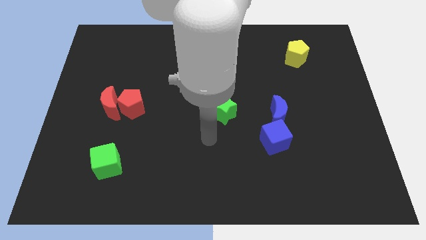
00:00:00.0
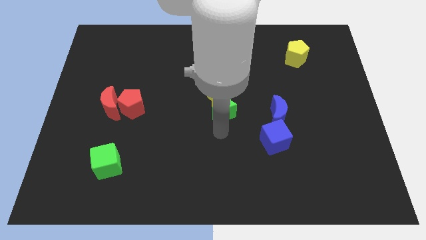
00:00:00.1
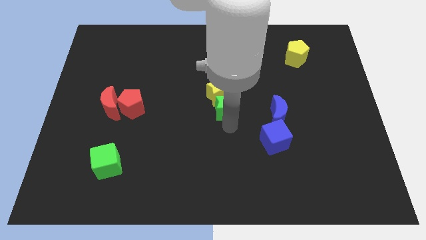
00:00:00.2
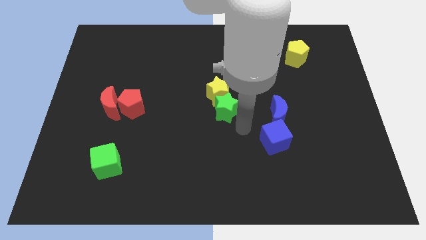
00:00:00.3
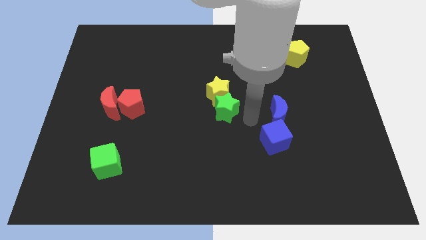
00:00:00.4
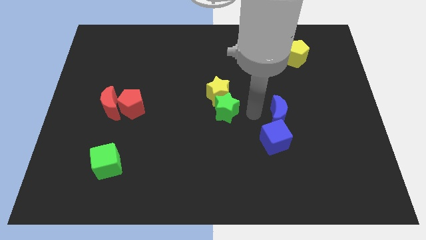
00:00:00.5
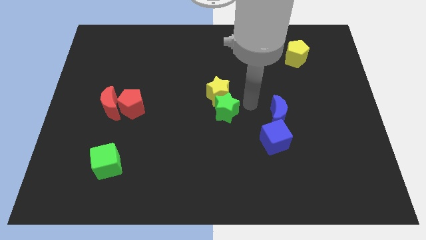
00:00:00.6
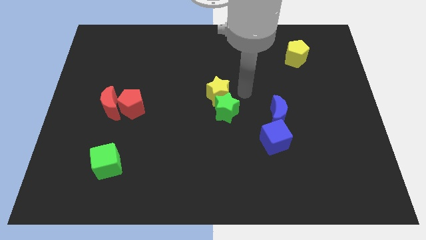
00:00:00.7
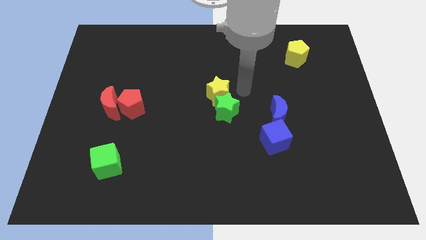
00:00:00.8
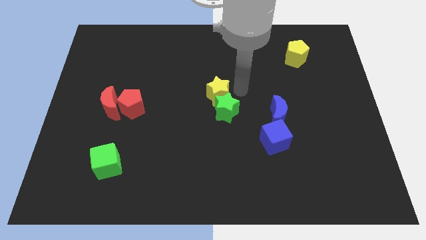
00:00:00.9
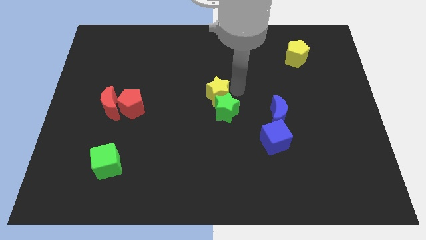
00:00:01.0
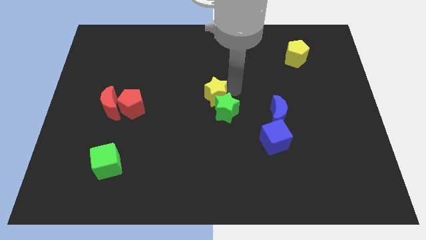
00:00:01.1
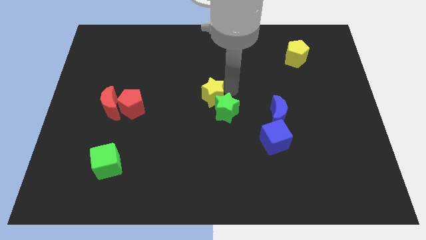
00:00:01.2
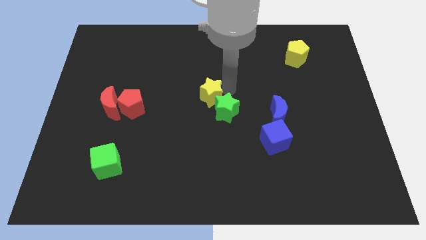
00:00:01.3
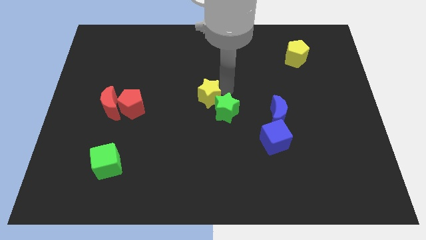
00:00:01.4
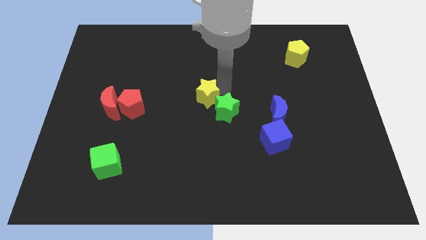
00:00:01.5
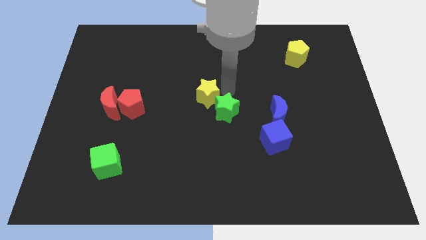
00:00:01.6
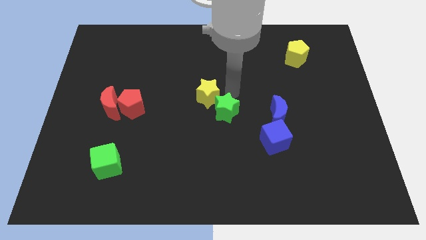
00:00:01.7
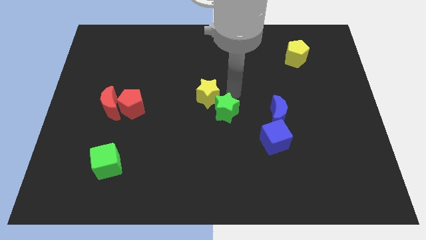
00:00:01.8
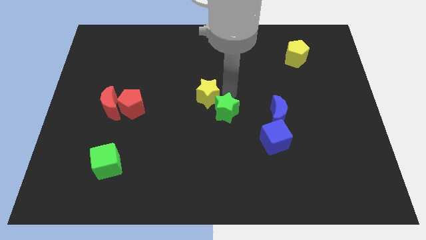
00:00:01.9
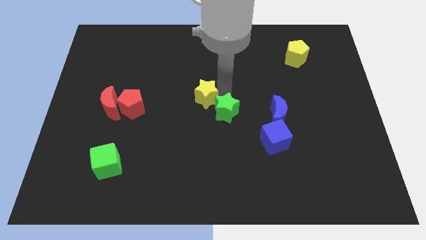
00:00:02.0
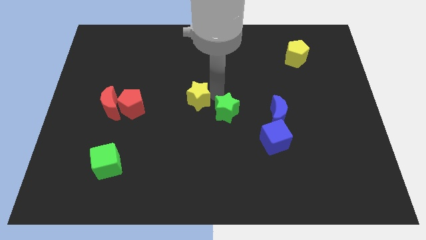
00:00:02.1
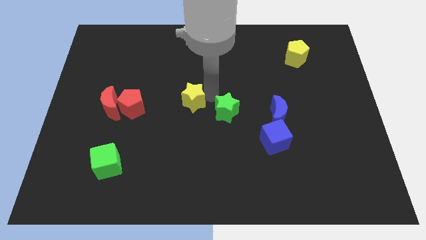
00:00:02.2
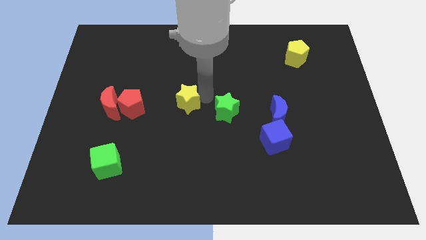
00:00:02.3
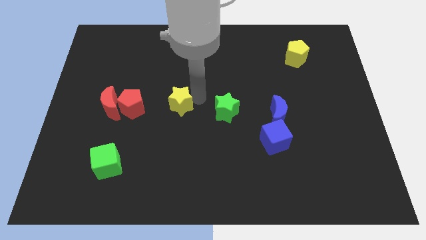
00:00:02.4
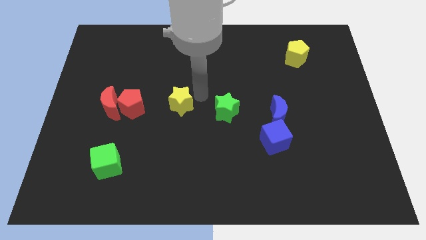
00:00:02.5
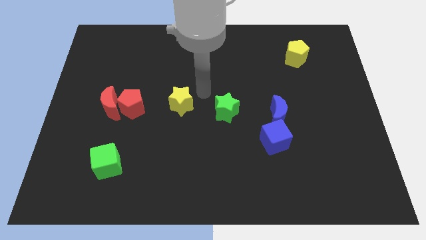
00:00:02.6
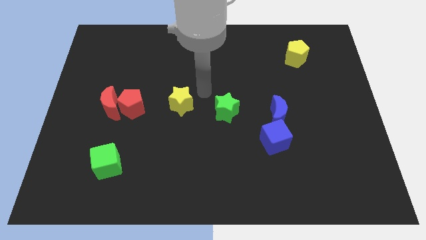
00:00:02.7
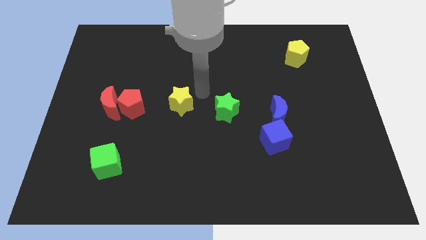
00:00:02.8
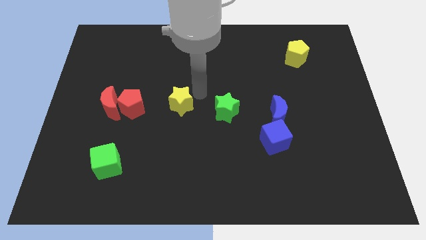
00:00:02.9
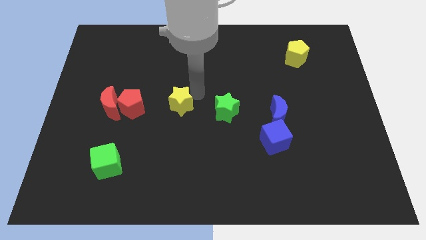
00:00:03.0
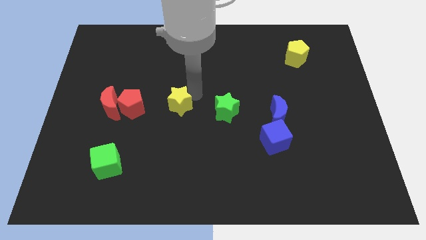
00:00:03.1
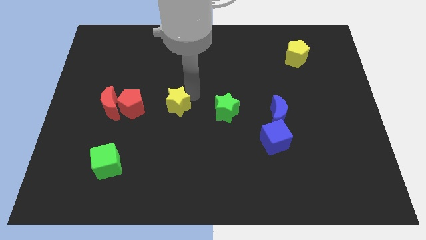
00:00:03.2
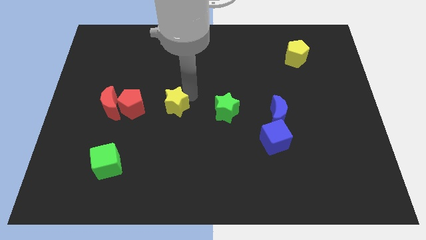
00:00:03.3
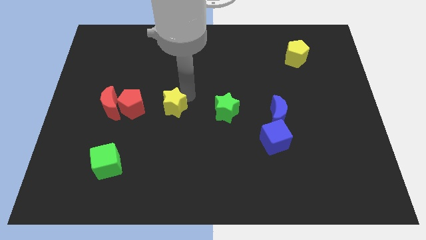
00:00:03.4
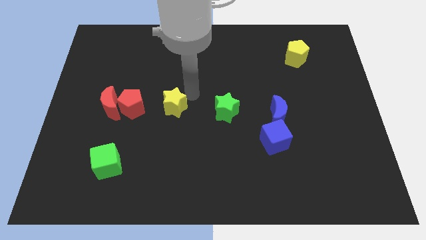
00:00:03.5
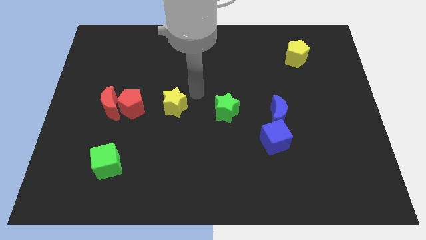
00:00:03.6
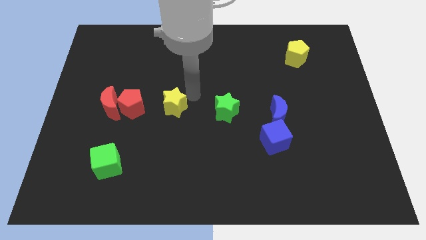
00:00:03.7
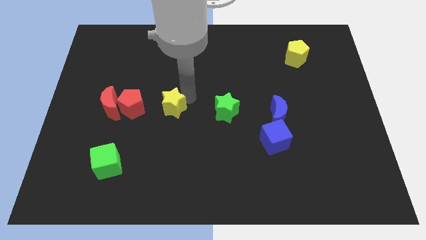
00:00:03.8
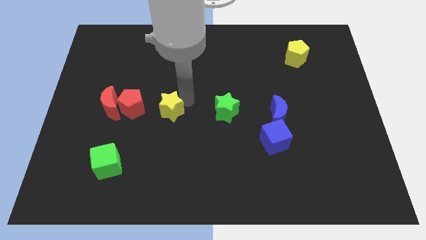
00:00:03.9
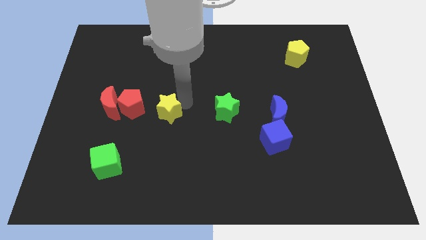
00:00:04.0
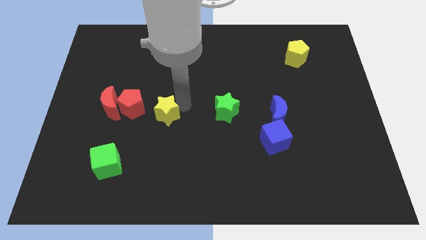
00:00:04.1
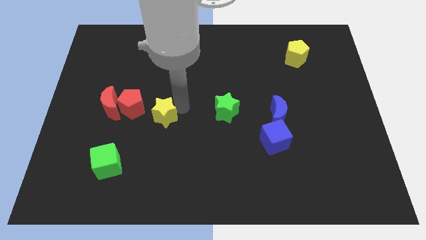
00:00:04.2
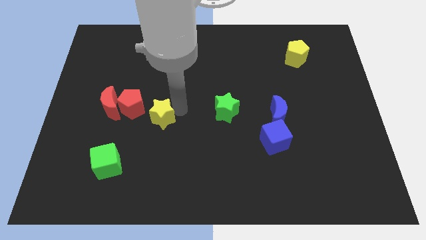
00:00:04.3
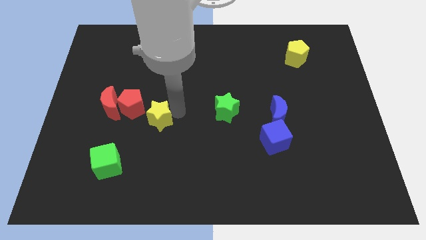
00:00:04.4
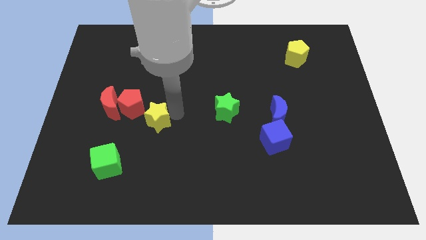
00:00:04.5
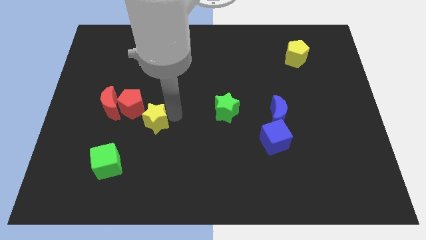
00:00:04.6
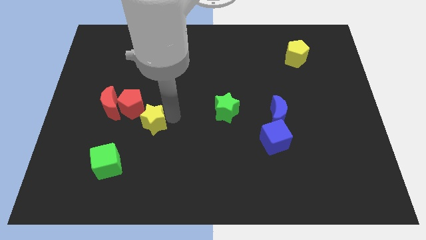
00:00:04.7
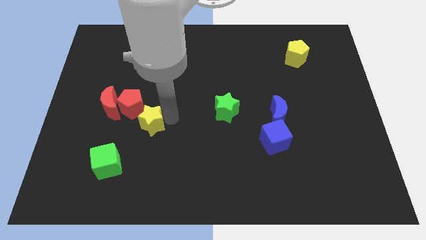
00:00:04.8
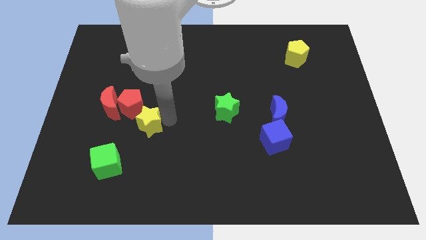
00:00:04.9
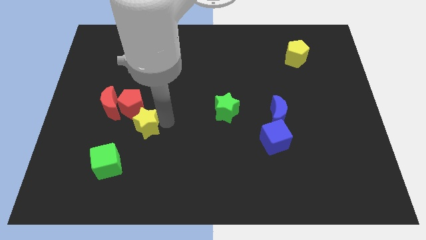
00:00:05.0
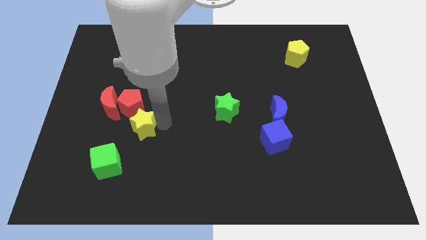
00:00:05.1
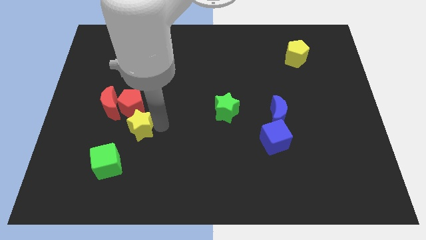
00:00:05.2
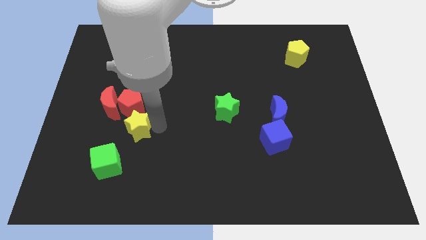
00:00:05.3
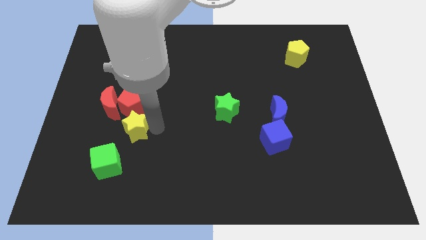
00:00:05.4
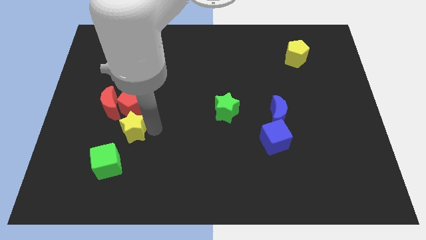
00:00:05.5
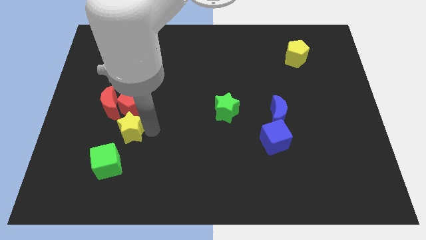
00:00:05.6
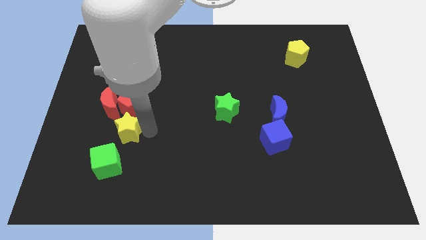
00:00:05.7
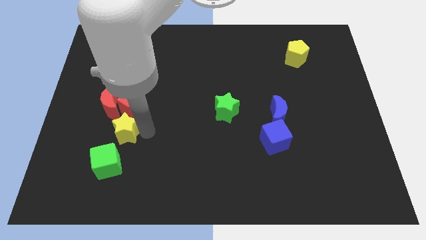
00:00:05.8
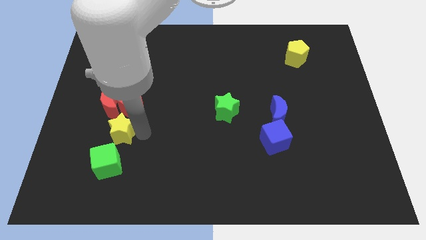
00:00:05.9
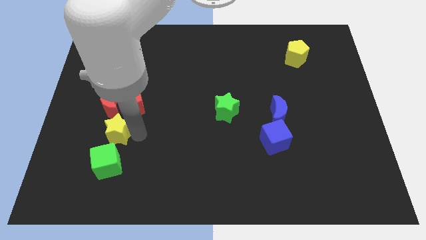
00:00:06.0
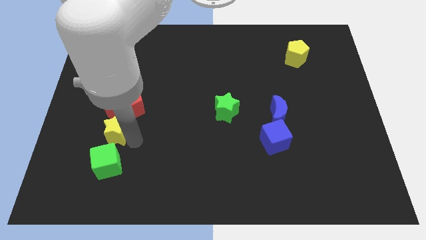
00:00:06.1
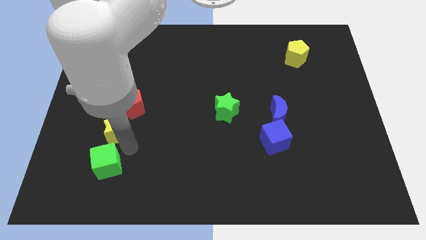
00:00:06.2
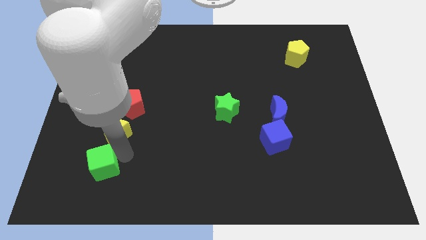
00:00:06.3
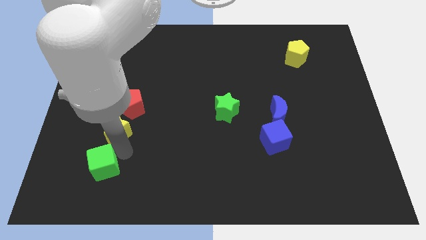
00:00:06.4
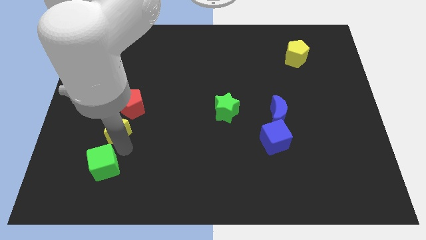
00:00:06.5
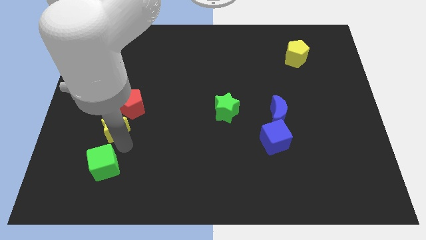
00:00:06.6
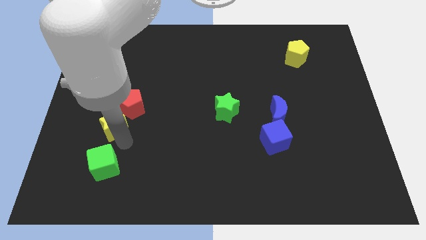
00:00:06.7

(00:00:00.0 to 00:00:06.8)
slide the yellow star to the red moon
